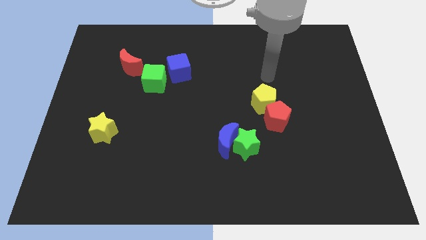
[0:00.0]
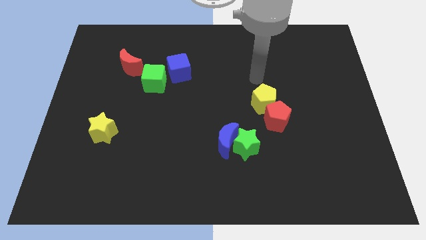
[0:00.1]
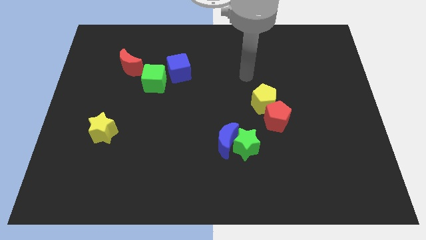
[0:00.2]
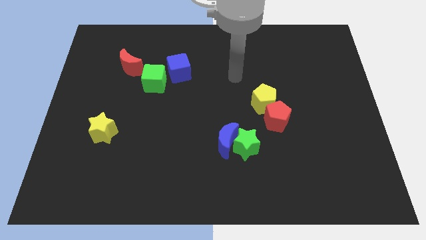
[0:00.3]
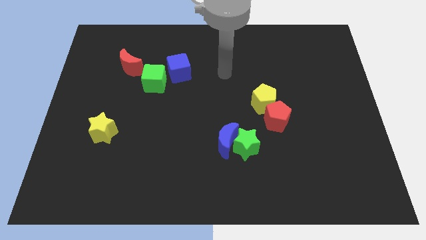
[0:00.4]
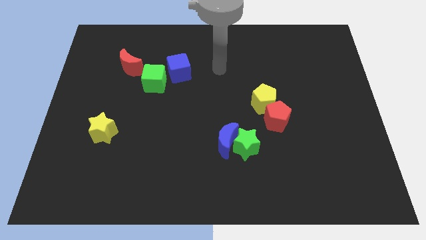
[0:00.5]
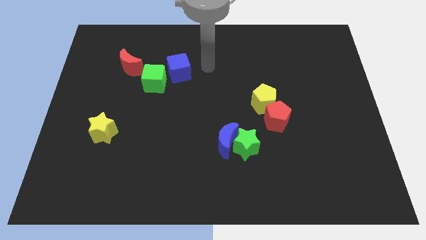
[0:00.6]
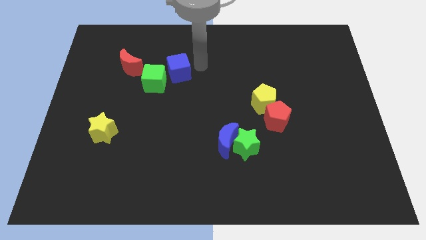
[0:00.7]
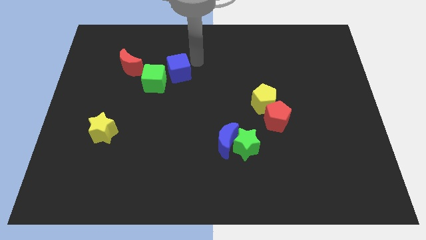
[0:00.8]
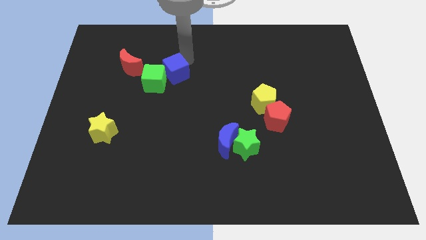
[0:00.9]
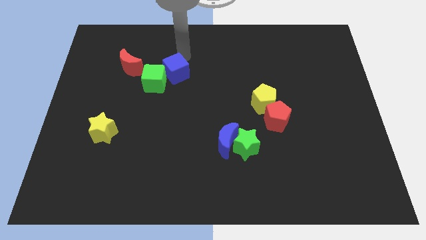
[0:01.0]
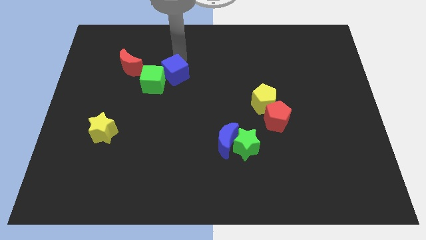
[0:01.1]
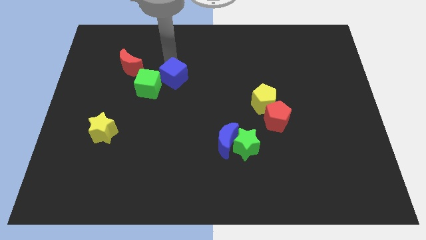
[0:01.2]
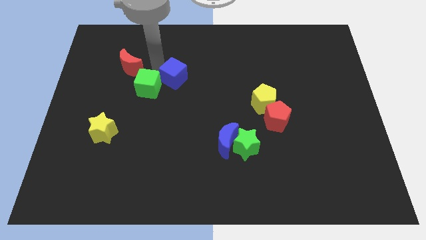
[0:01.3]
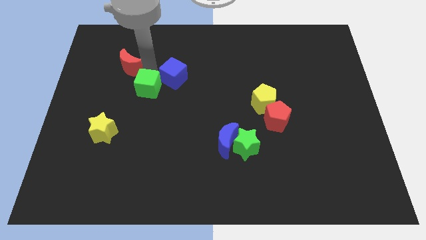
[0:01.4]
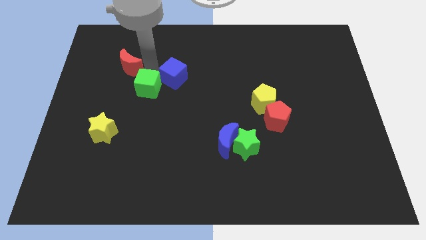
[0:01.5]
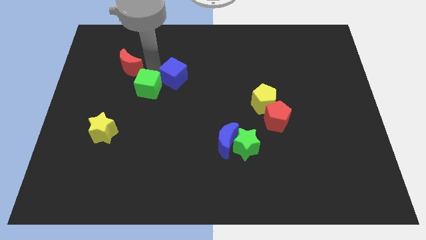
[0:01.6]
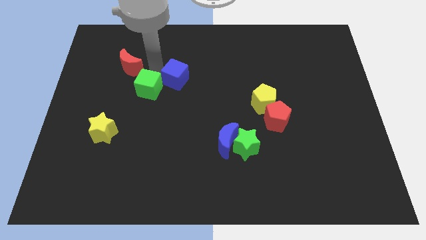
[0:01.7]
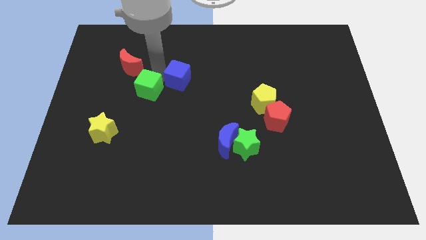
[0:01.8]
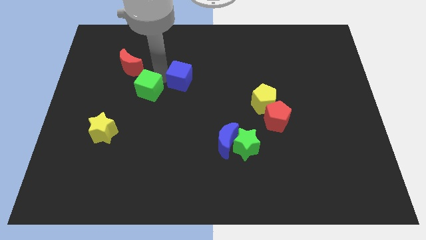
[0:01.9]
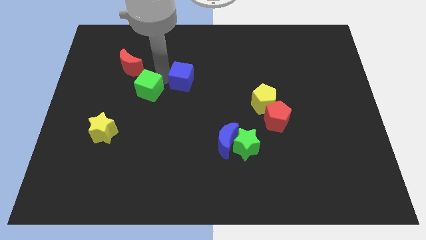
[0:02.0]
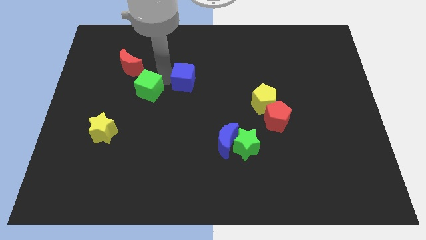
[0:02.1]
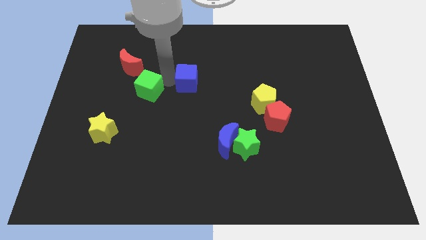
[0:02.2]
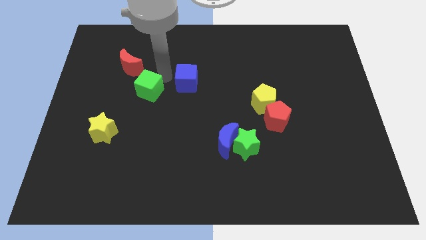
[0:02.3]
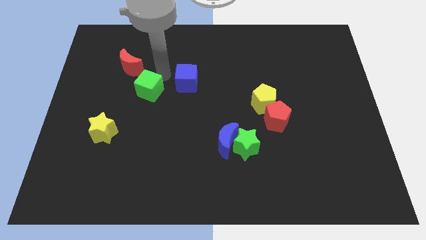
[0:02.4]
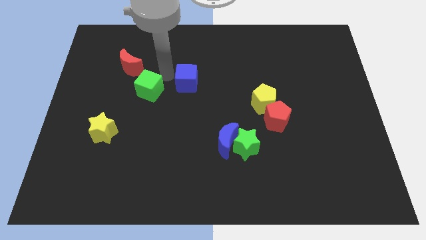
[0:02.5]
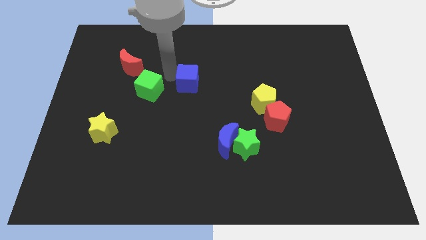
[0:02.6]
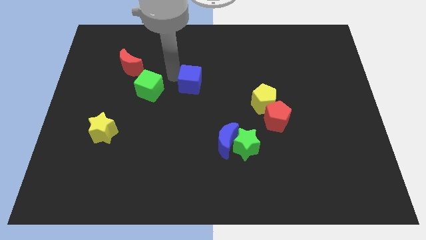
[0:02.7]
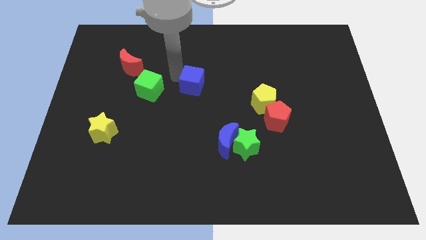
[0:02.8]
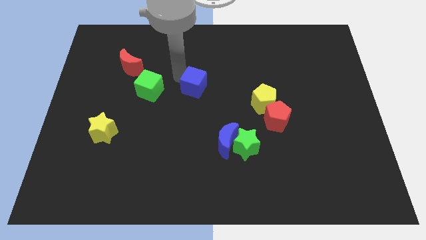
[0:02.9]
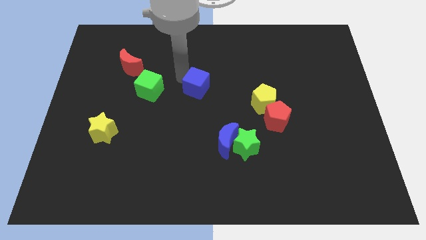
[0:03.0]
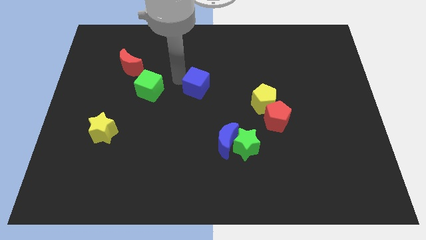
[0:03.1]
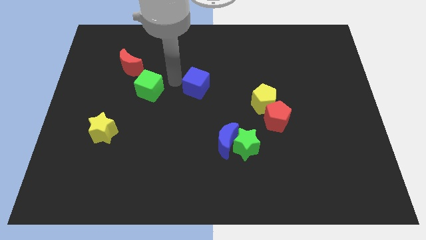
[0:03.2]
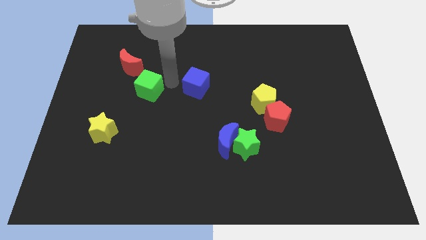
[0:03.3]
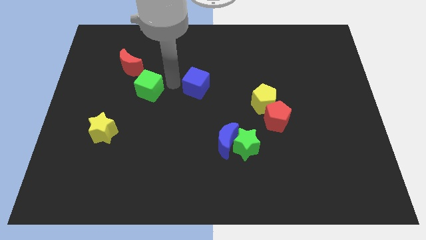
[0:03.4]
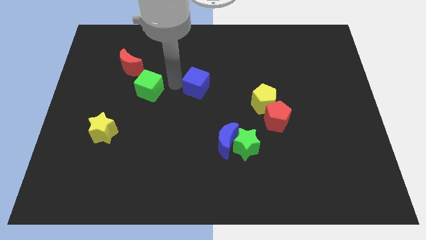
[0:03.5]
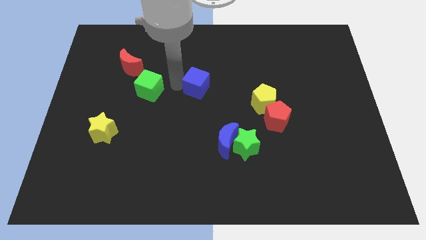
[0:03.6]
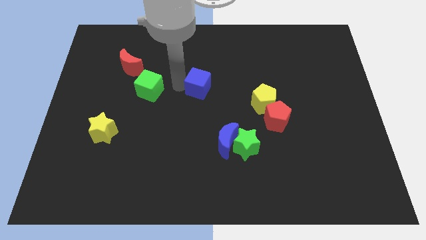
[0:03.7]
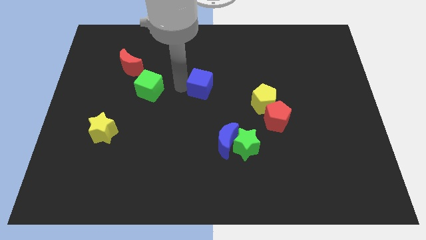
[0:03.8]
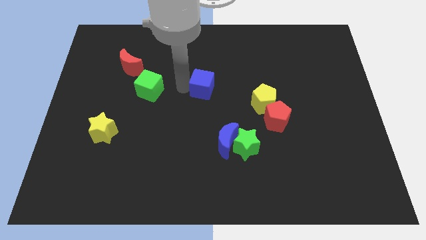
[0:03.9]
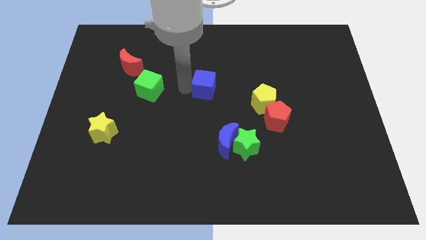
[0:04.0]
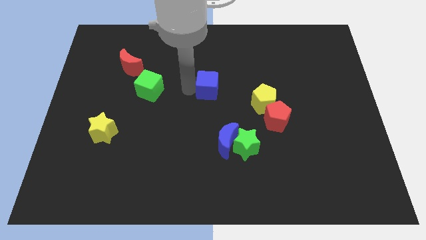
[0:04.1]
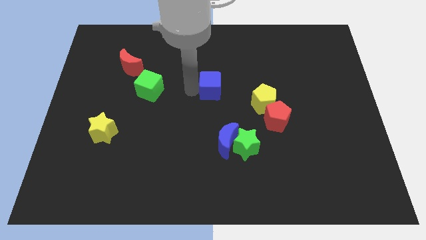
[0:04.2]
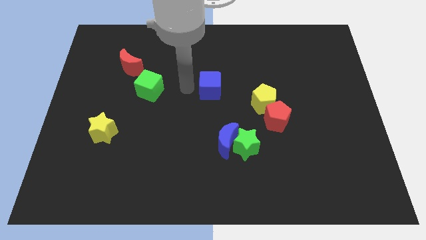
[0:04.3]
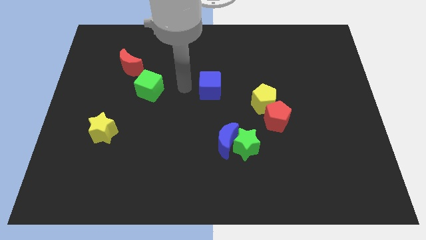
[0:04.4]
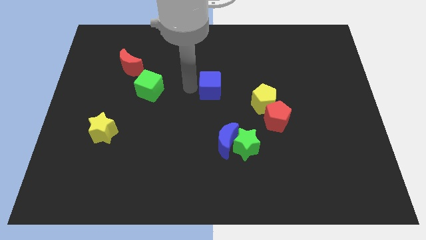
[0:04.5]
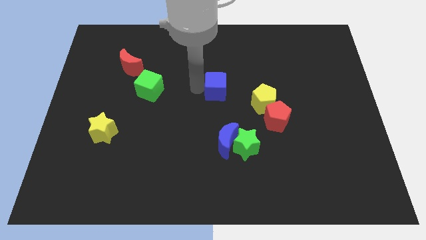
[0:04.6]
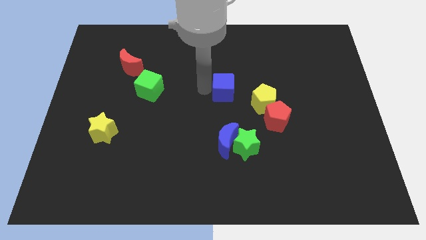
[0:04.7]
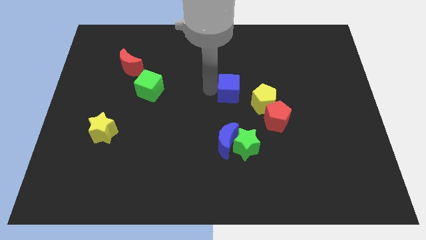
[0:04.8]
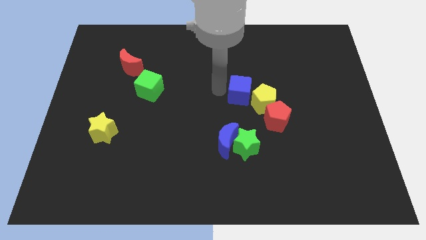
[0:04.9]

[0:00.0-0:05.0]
move the blue cube towards the yellow pentagon

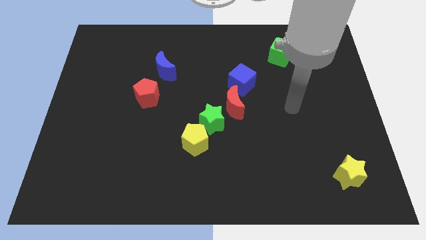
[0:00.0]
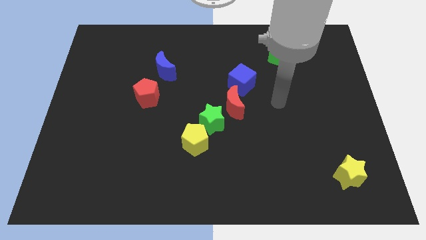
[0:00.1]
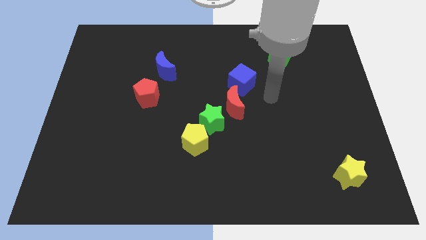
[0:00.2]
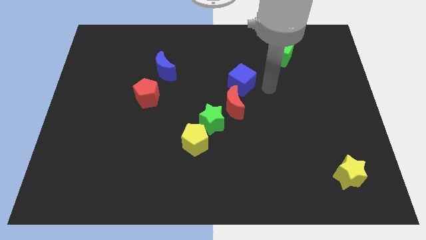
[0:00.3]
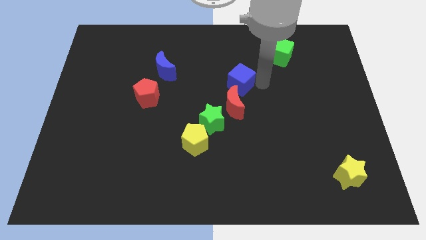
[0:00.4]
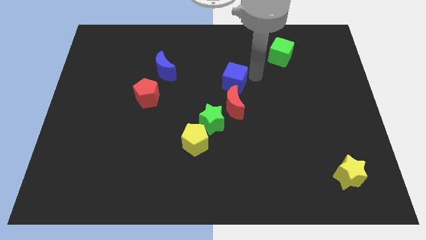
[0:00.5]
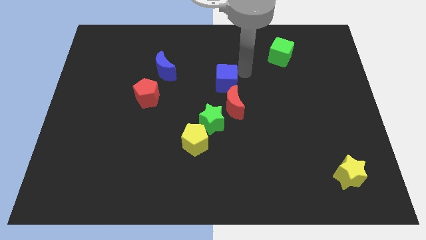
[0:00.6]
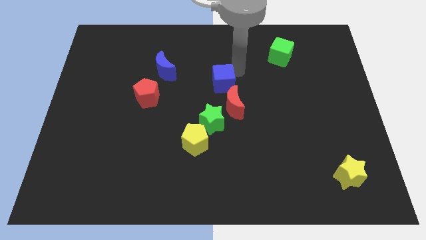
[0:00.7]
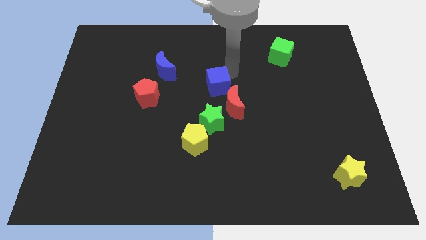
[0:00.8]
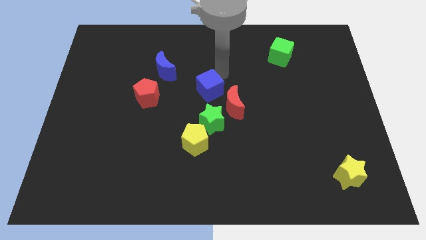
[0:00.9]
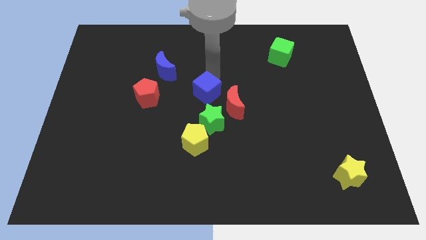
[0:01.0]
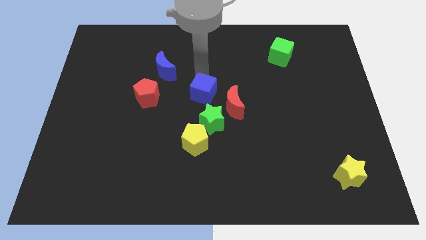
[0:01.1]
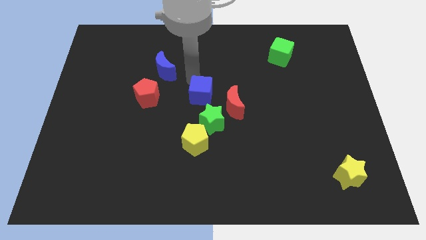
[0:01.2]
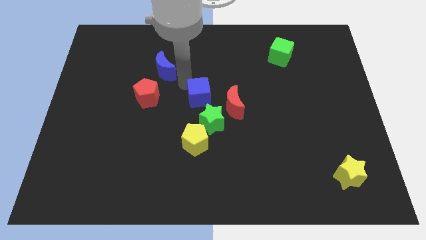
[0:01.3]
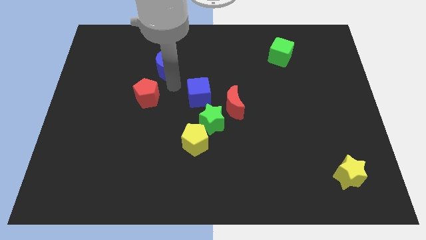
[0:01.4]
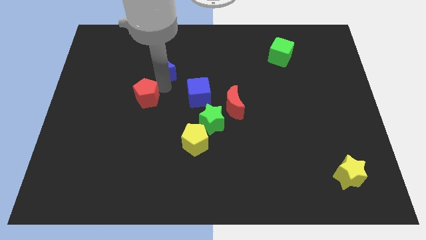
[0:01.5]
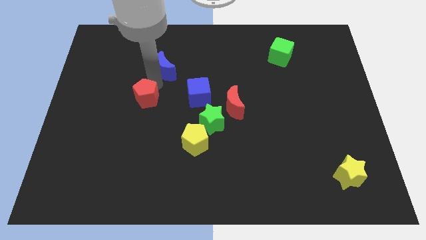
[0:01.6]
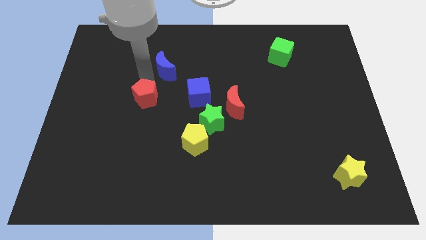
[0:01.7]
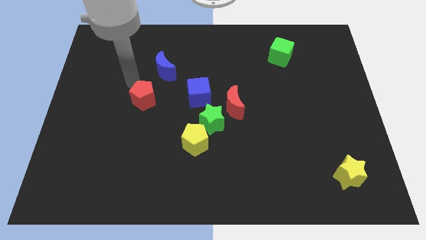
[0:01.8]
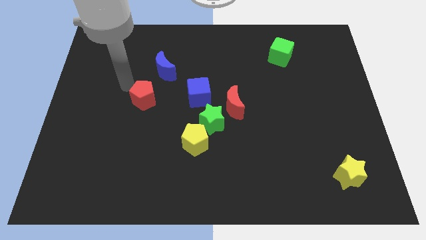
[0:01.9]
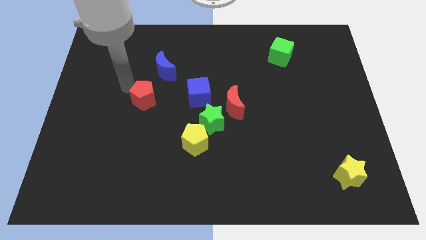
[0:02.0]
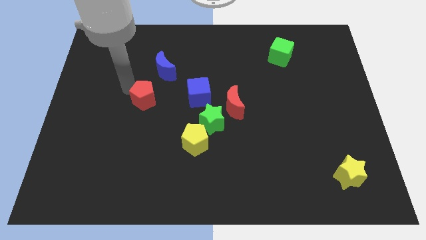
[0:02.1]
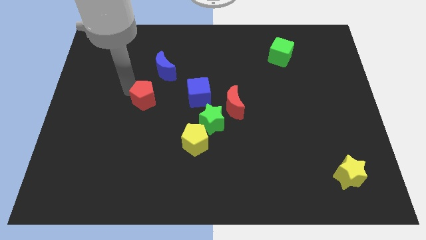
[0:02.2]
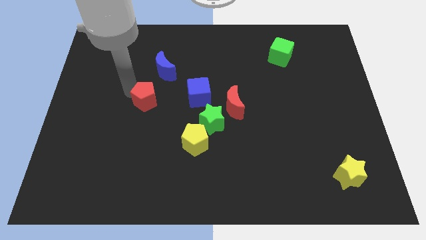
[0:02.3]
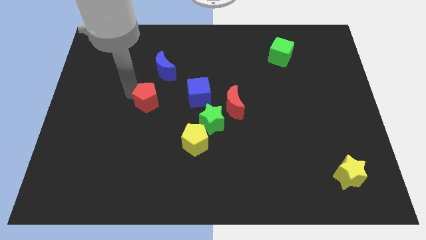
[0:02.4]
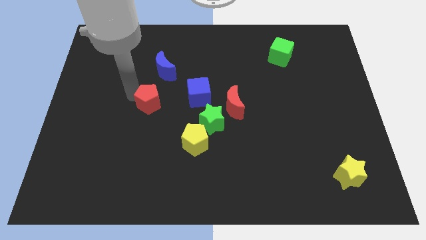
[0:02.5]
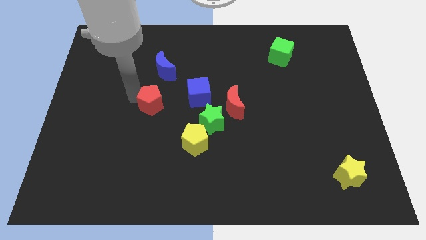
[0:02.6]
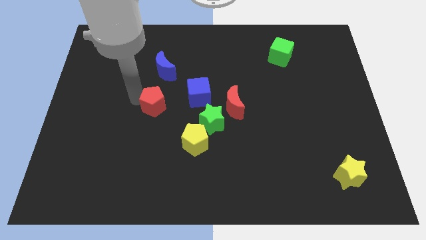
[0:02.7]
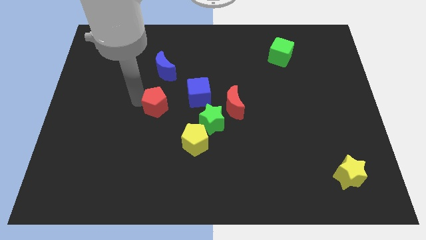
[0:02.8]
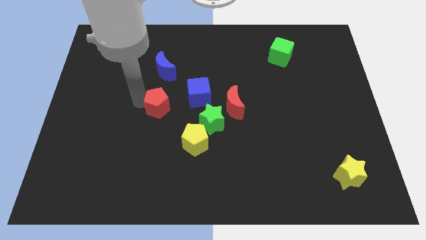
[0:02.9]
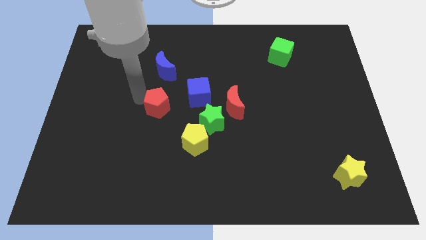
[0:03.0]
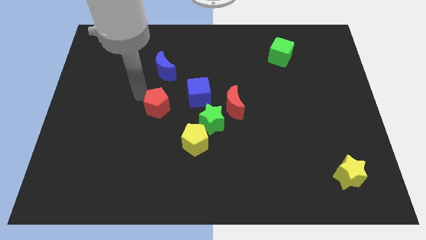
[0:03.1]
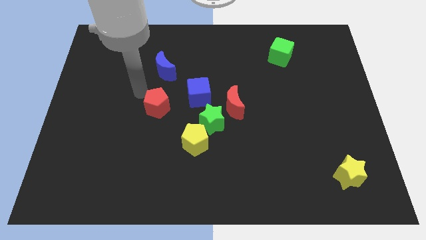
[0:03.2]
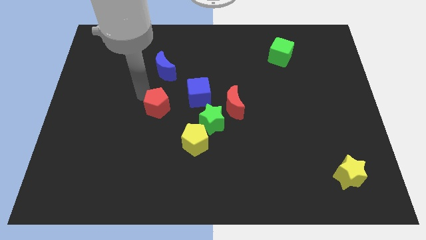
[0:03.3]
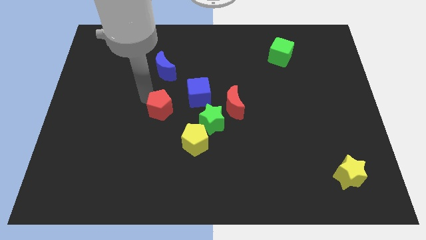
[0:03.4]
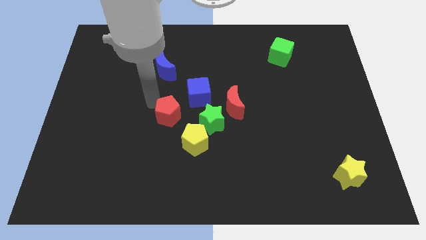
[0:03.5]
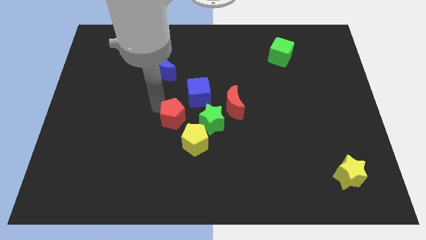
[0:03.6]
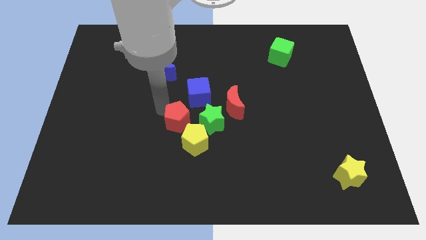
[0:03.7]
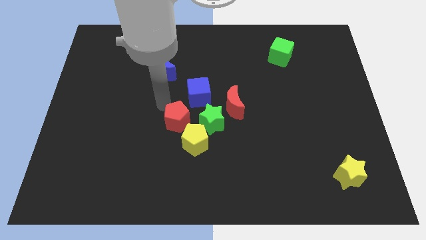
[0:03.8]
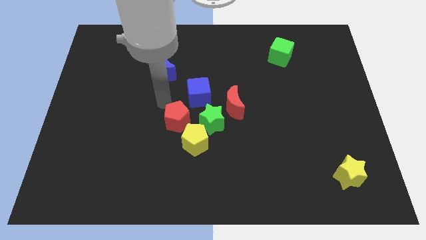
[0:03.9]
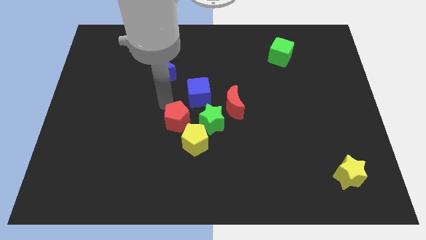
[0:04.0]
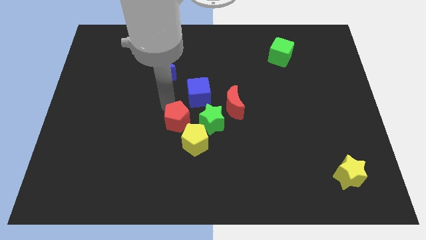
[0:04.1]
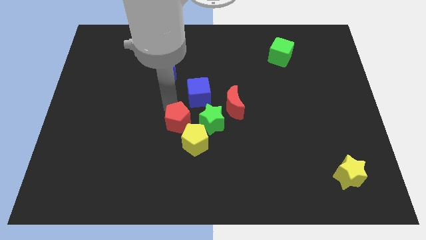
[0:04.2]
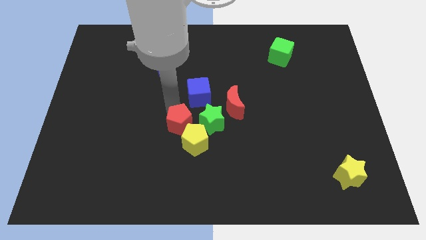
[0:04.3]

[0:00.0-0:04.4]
put the red pentagon close to the yellow pentagon
